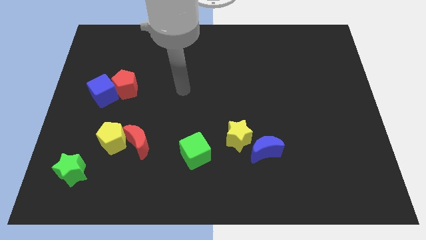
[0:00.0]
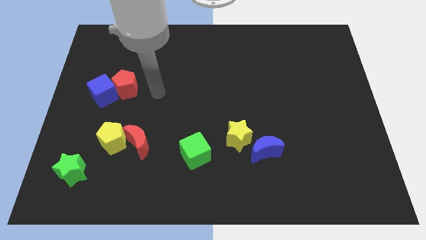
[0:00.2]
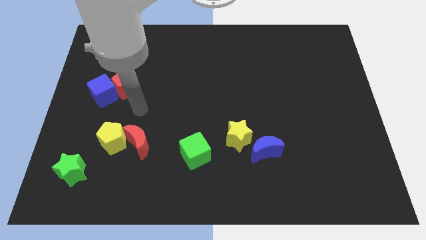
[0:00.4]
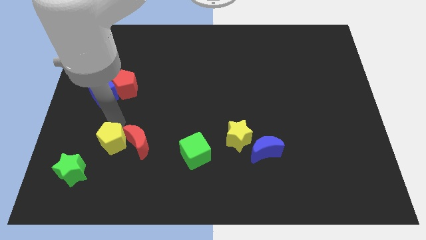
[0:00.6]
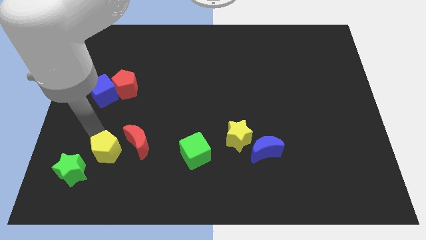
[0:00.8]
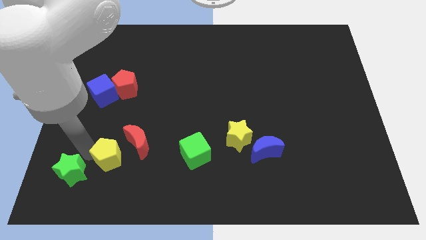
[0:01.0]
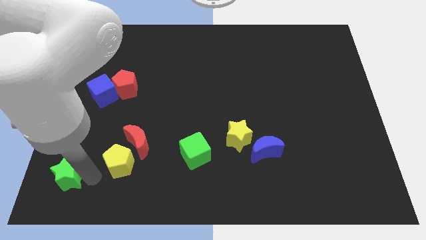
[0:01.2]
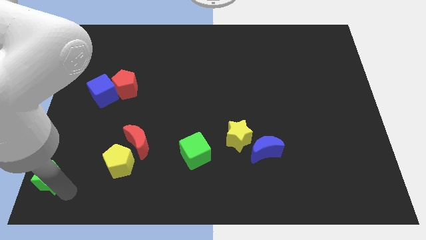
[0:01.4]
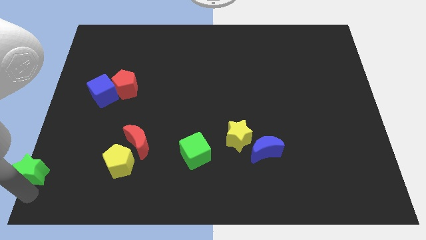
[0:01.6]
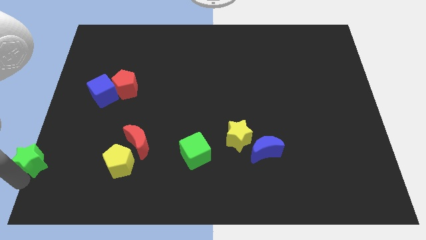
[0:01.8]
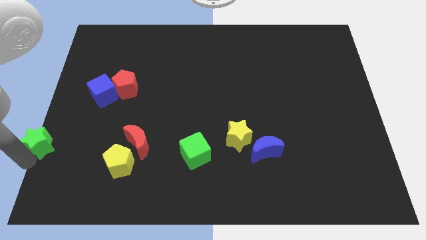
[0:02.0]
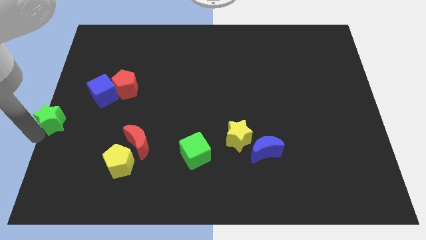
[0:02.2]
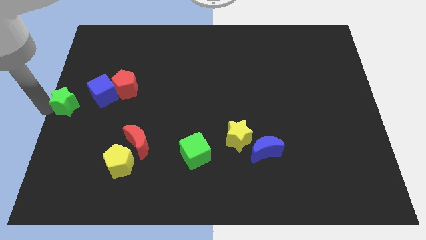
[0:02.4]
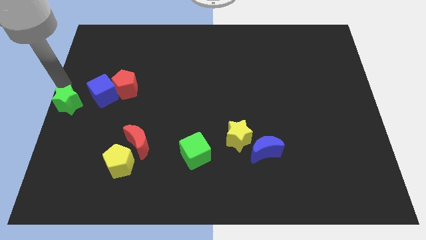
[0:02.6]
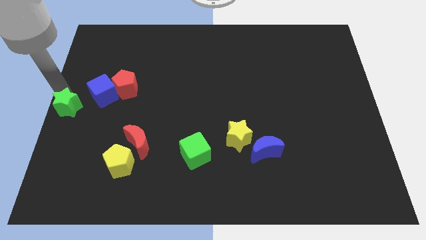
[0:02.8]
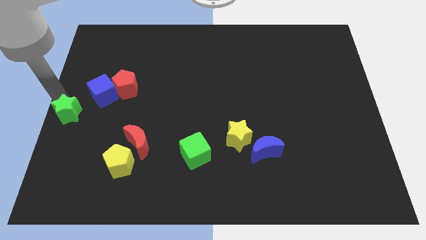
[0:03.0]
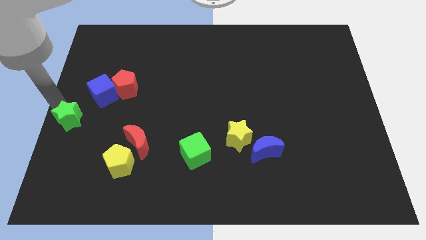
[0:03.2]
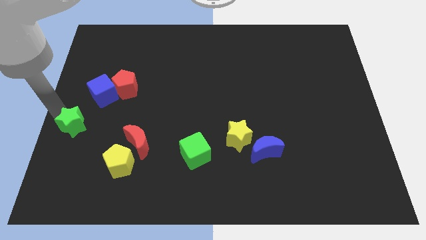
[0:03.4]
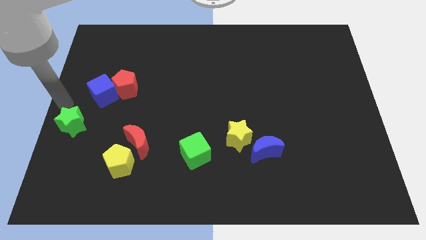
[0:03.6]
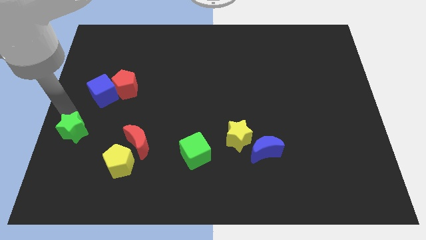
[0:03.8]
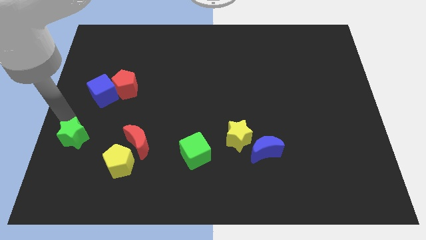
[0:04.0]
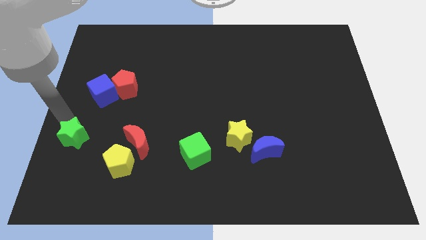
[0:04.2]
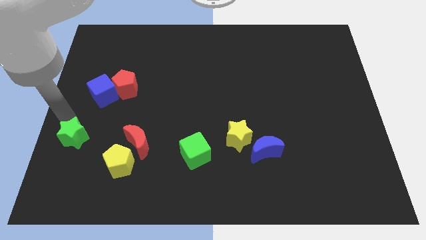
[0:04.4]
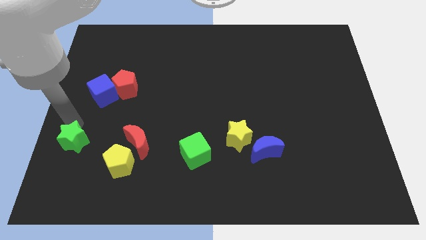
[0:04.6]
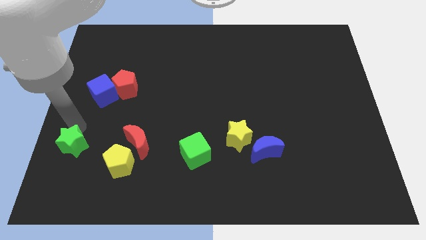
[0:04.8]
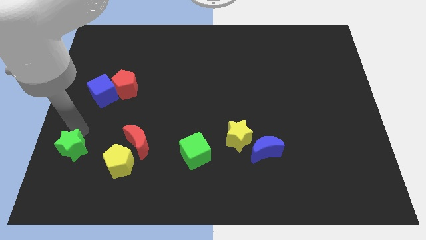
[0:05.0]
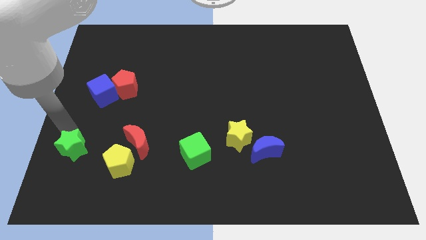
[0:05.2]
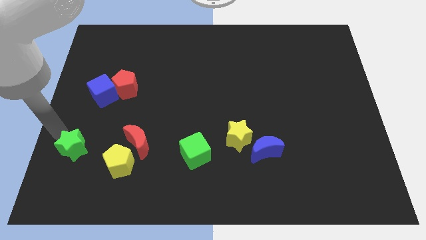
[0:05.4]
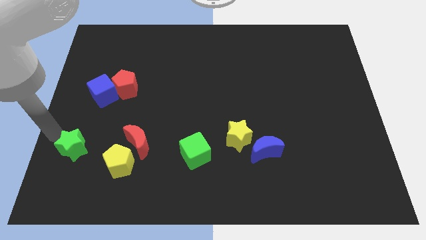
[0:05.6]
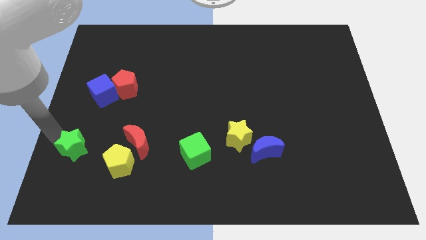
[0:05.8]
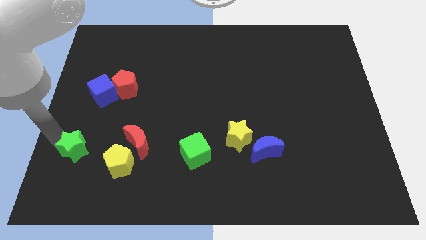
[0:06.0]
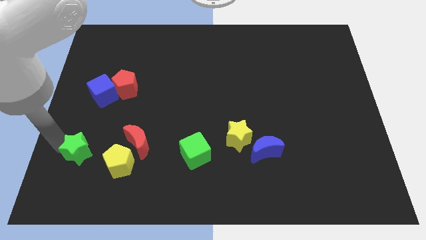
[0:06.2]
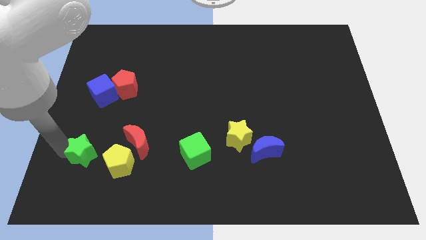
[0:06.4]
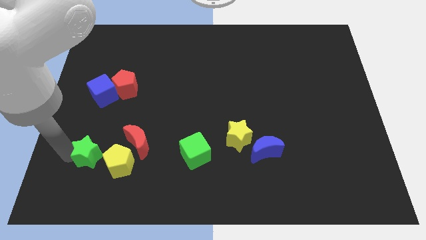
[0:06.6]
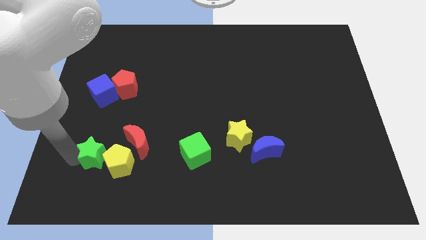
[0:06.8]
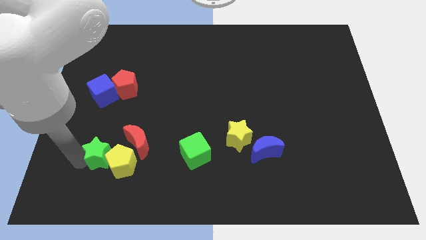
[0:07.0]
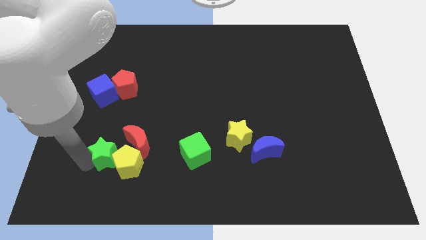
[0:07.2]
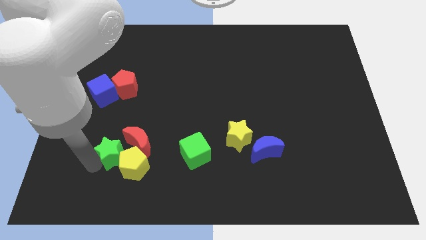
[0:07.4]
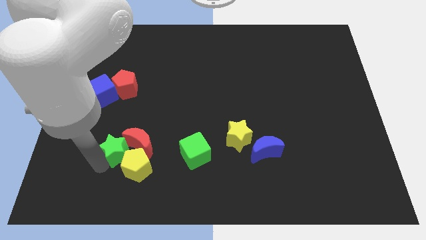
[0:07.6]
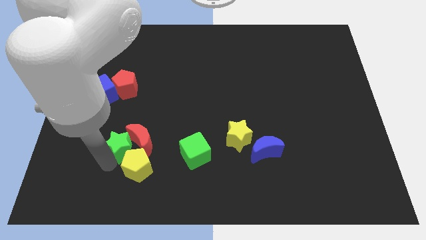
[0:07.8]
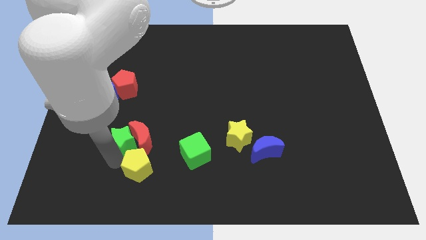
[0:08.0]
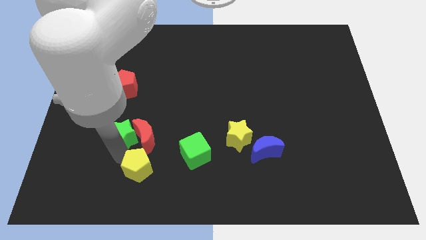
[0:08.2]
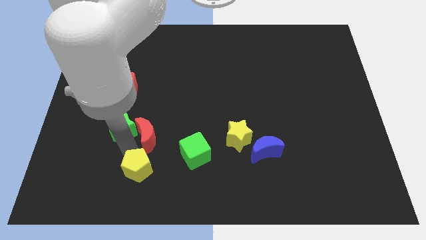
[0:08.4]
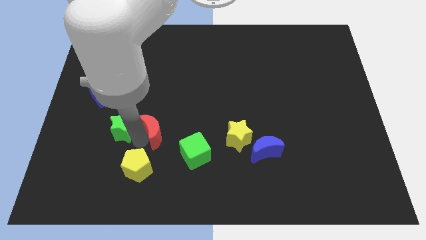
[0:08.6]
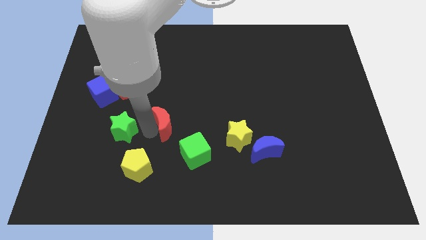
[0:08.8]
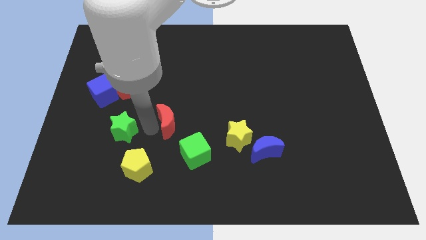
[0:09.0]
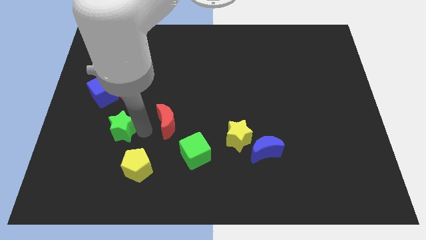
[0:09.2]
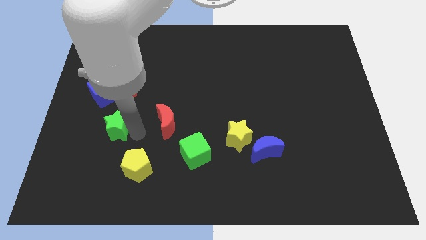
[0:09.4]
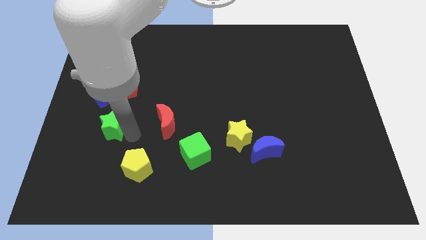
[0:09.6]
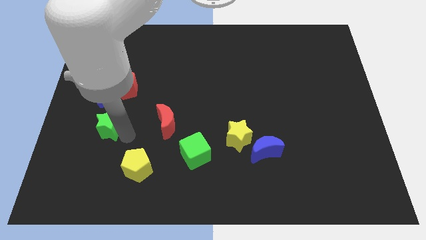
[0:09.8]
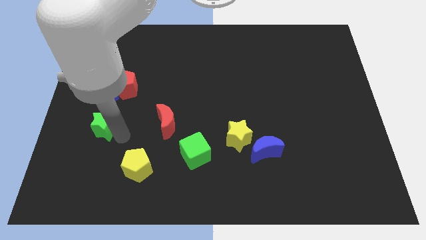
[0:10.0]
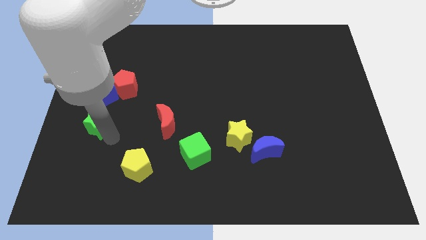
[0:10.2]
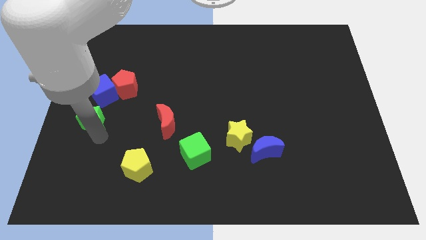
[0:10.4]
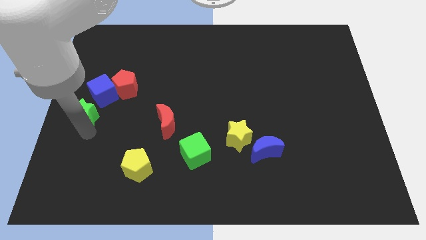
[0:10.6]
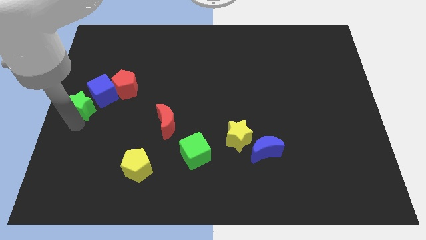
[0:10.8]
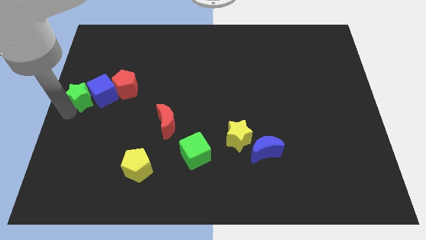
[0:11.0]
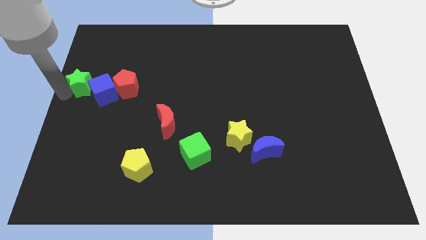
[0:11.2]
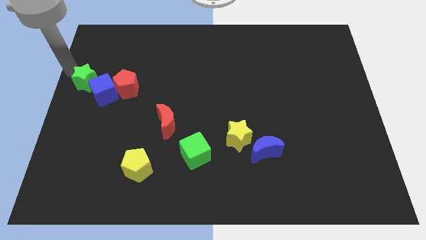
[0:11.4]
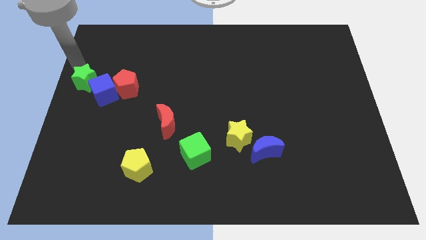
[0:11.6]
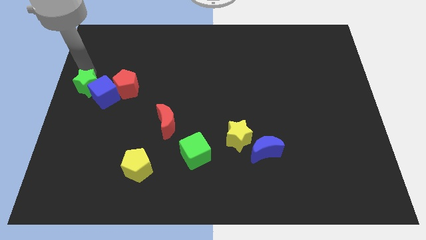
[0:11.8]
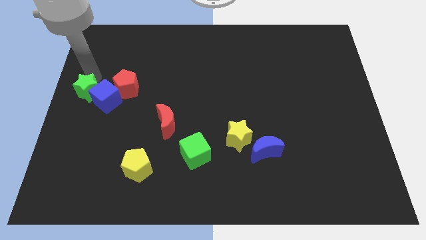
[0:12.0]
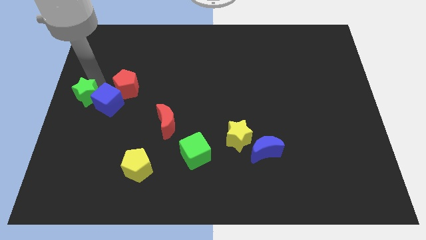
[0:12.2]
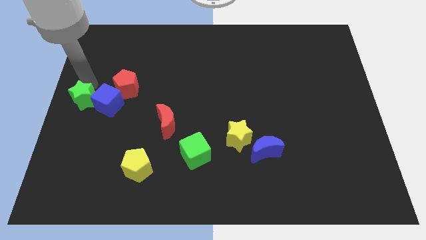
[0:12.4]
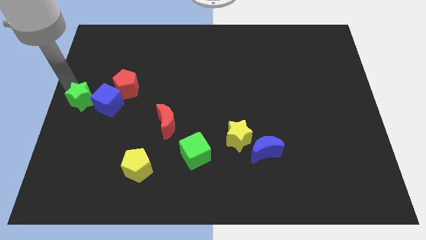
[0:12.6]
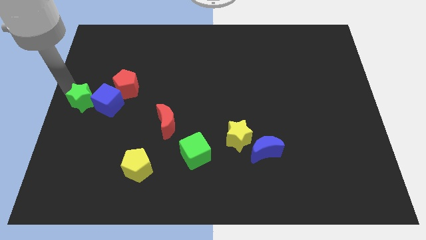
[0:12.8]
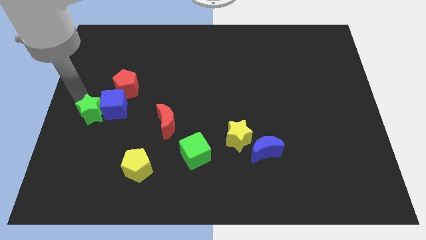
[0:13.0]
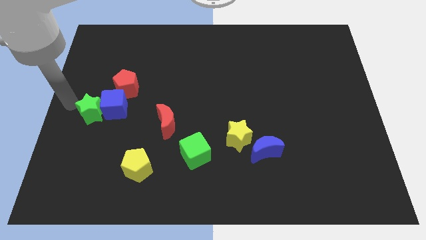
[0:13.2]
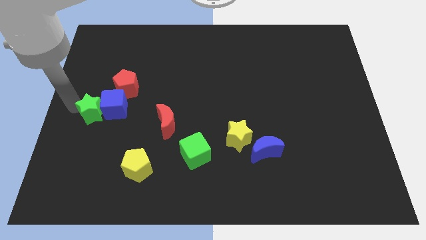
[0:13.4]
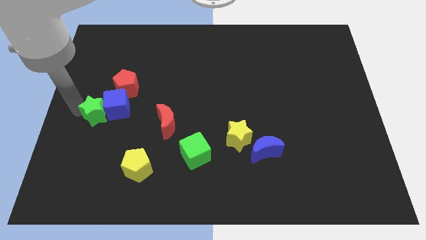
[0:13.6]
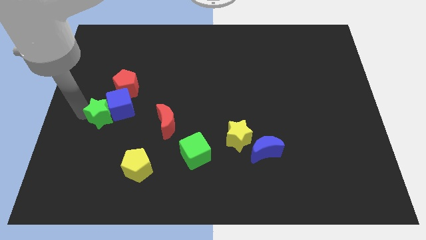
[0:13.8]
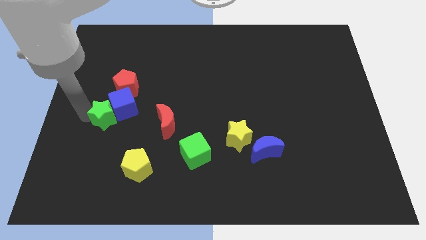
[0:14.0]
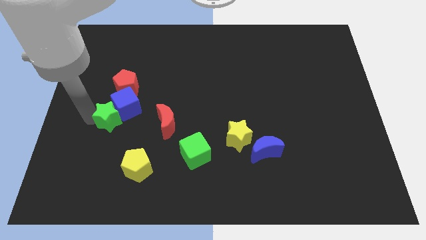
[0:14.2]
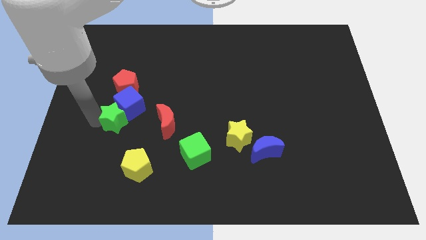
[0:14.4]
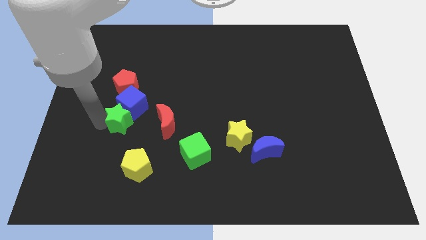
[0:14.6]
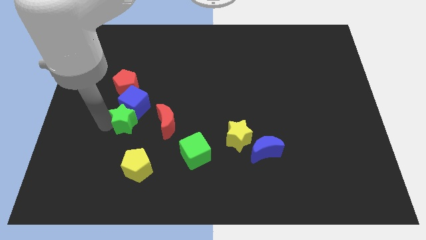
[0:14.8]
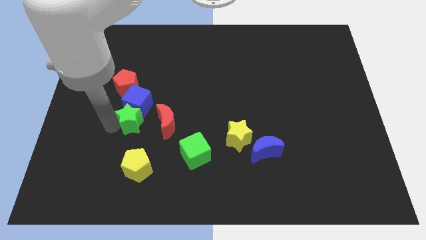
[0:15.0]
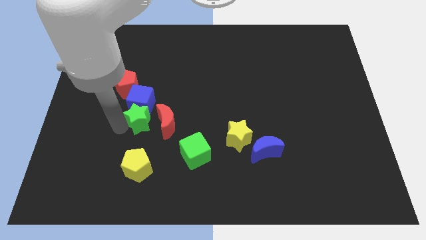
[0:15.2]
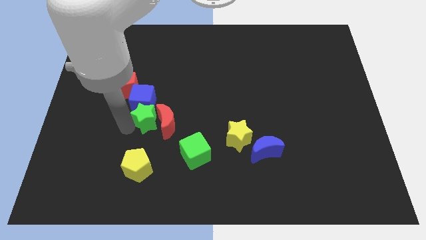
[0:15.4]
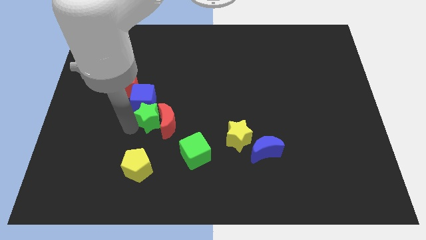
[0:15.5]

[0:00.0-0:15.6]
push the green star upwards and to the right

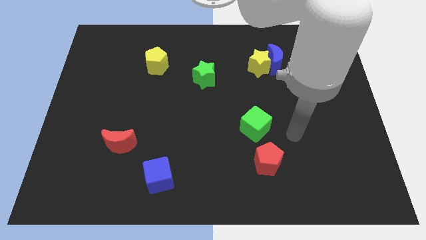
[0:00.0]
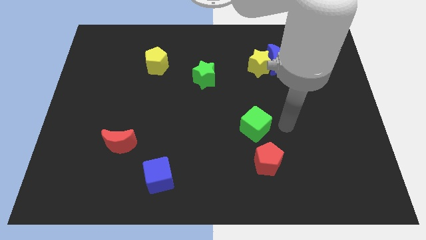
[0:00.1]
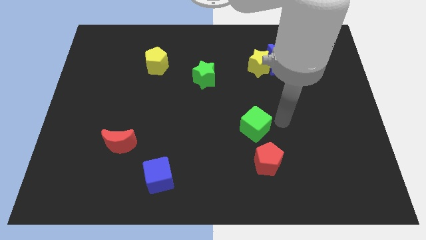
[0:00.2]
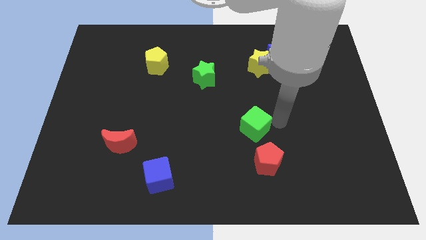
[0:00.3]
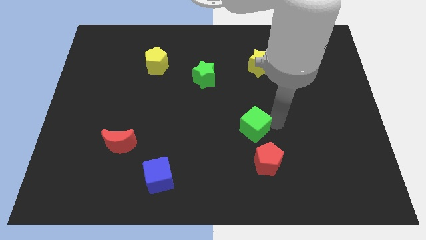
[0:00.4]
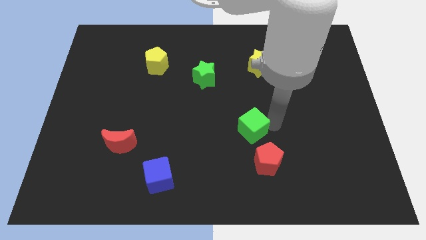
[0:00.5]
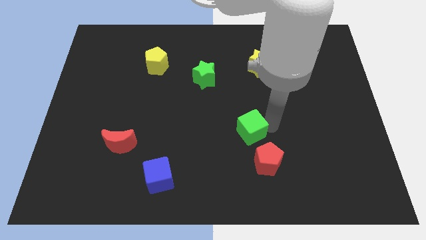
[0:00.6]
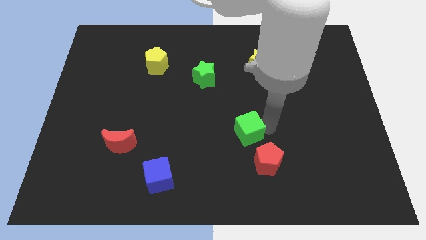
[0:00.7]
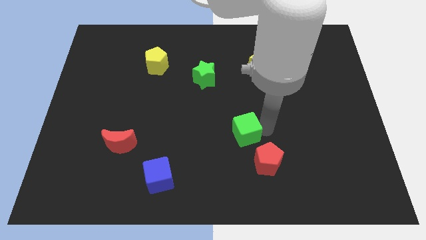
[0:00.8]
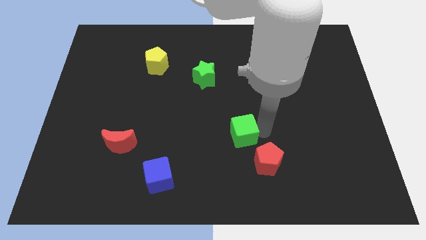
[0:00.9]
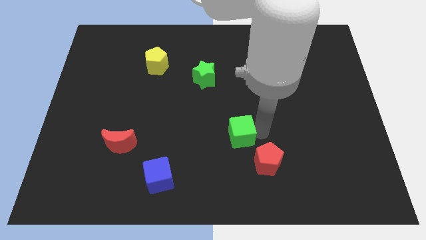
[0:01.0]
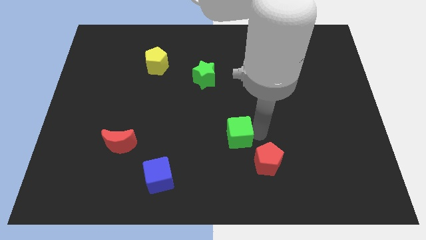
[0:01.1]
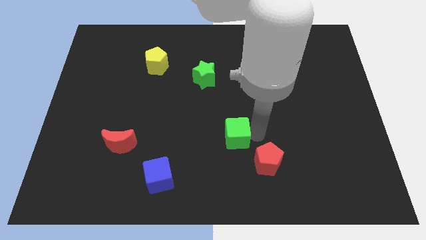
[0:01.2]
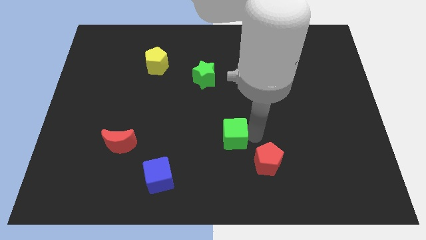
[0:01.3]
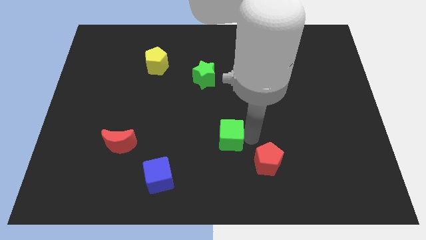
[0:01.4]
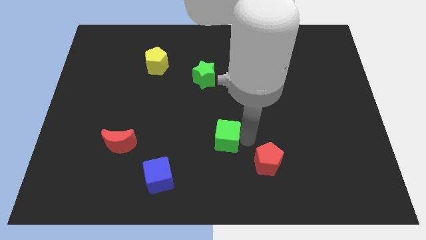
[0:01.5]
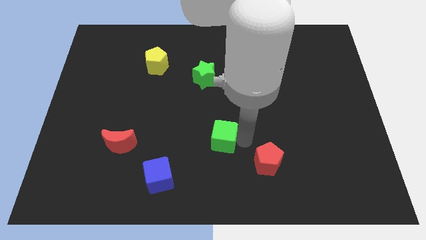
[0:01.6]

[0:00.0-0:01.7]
move the green cube slightly to the left
